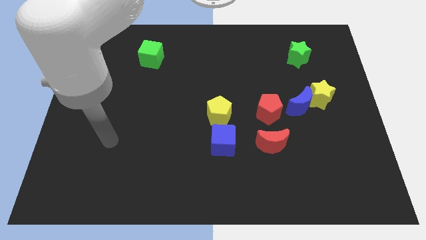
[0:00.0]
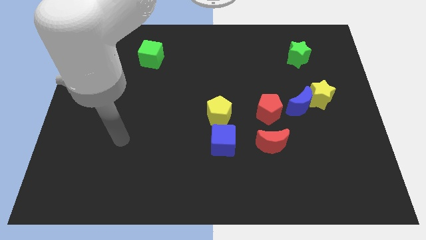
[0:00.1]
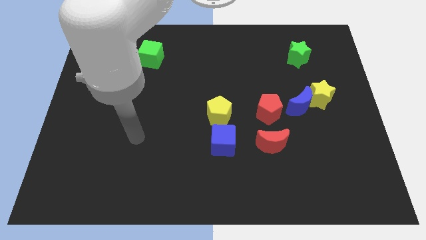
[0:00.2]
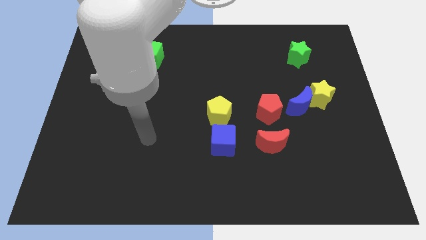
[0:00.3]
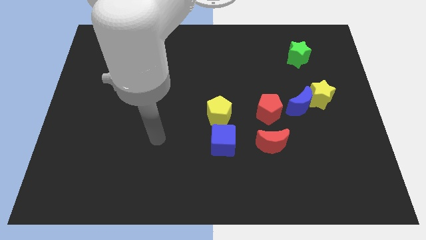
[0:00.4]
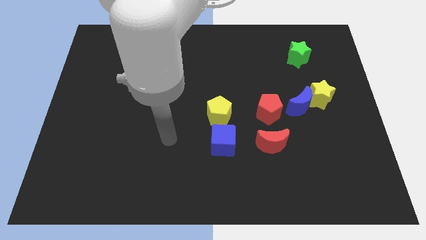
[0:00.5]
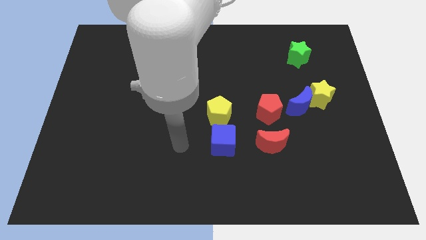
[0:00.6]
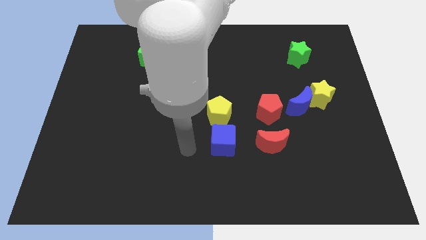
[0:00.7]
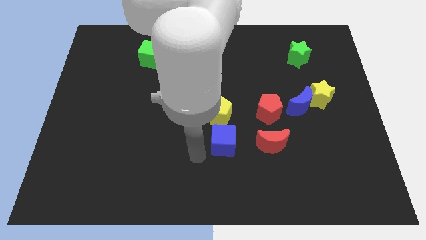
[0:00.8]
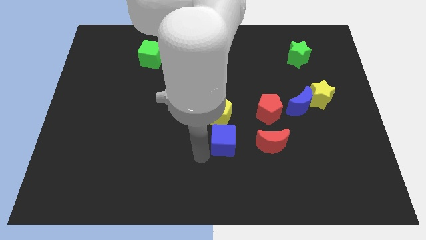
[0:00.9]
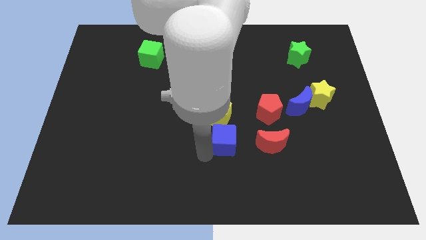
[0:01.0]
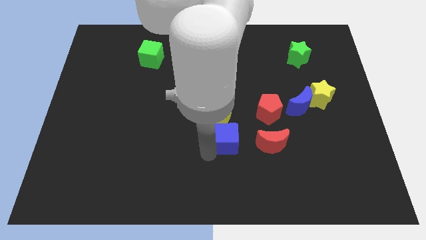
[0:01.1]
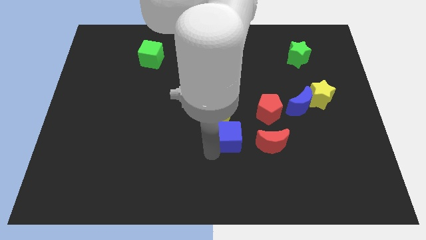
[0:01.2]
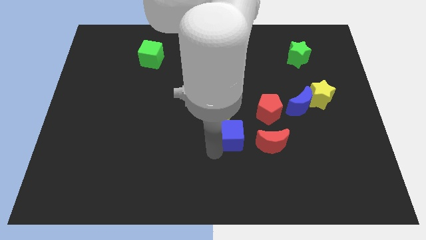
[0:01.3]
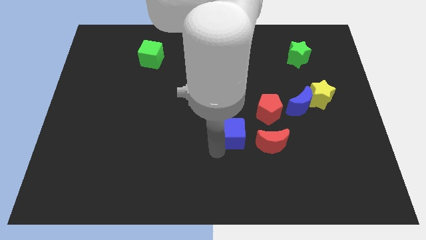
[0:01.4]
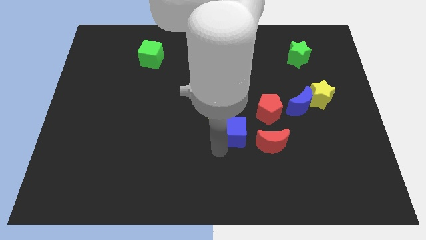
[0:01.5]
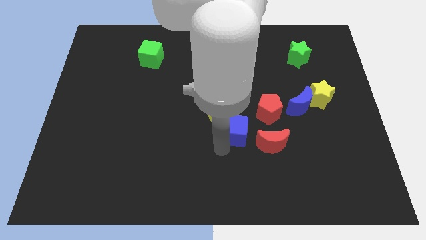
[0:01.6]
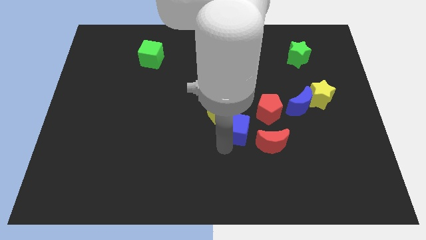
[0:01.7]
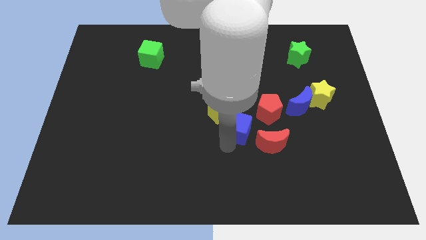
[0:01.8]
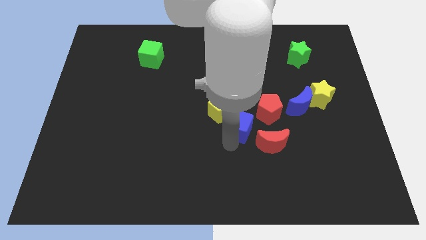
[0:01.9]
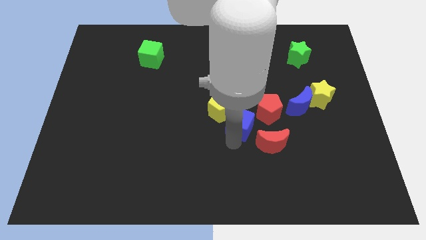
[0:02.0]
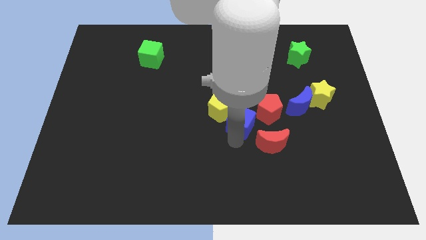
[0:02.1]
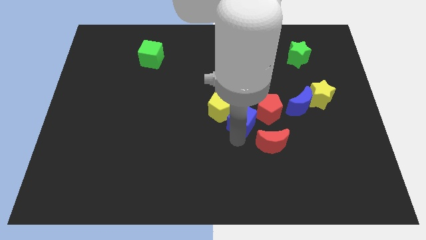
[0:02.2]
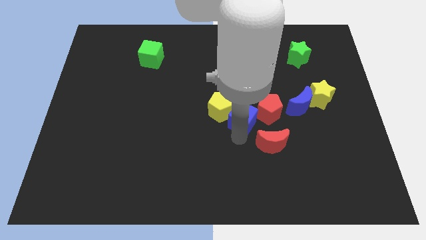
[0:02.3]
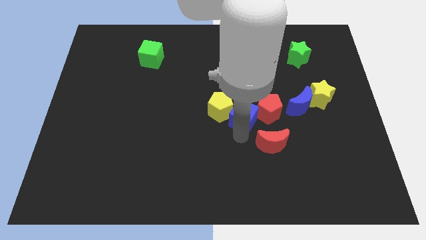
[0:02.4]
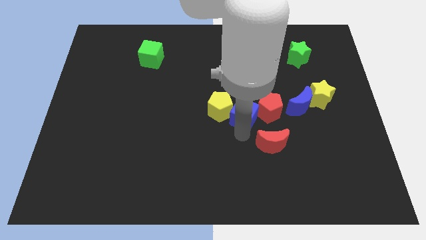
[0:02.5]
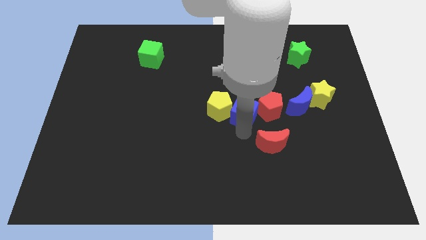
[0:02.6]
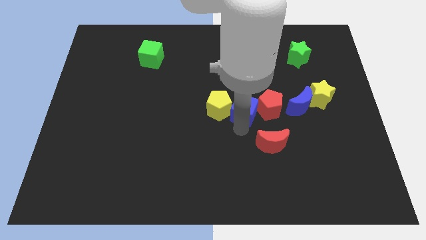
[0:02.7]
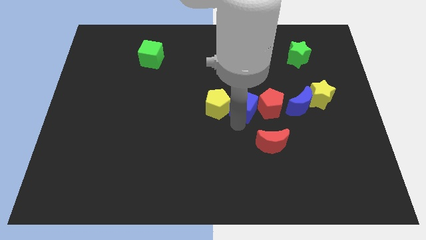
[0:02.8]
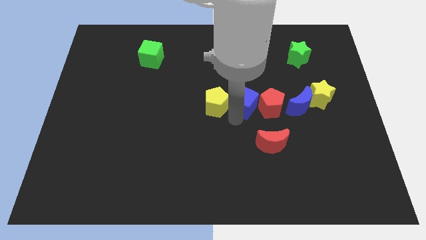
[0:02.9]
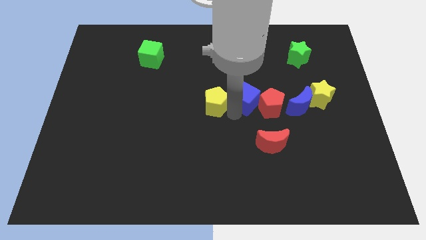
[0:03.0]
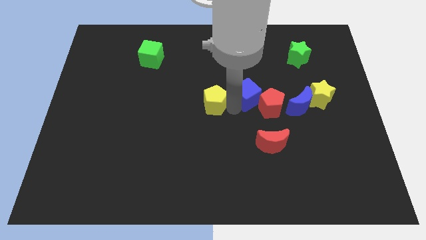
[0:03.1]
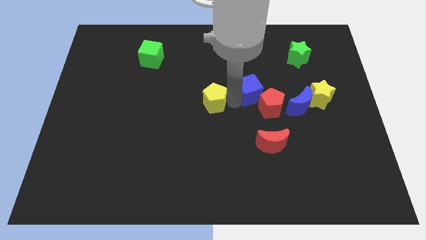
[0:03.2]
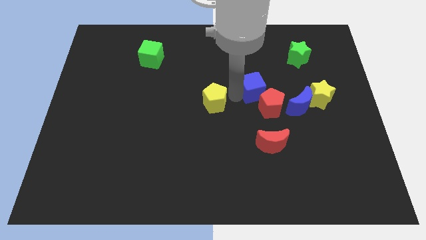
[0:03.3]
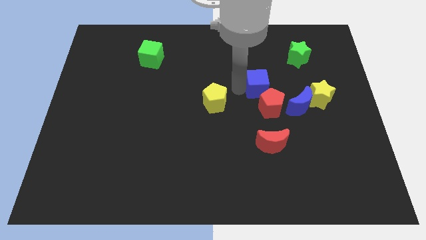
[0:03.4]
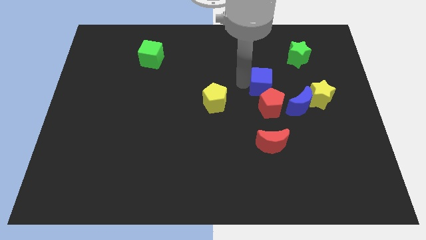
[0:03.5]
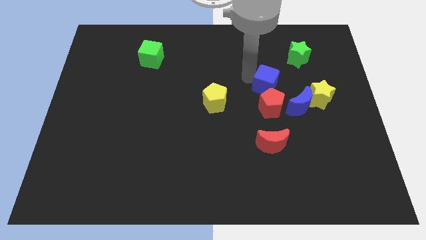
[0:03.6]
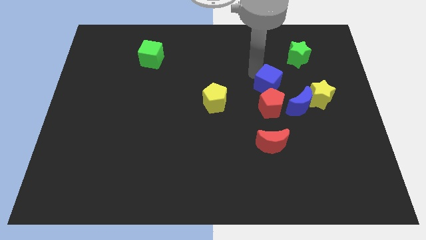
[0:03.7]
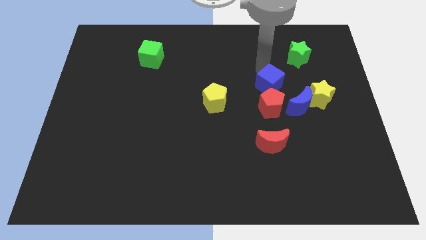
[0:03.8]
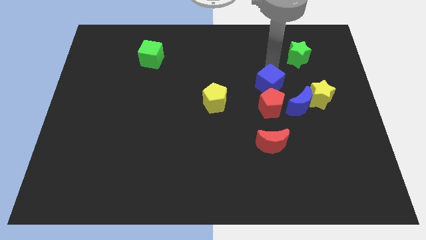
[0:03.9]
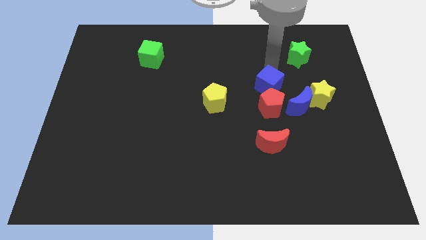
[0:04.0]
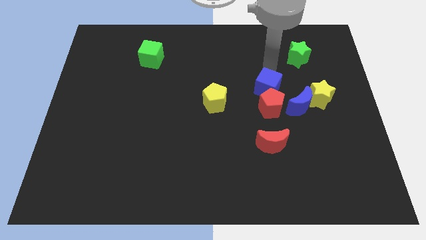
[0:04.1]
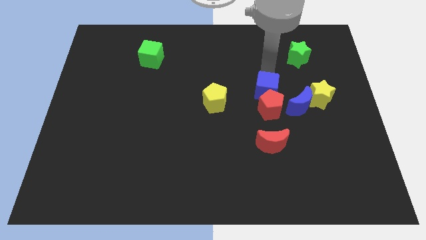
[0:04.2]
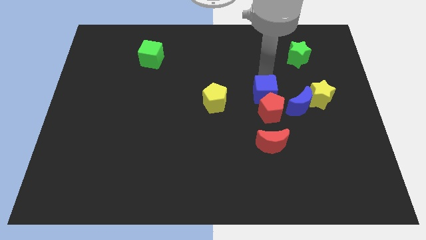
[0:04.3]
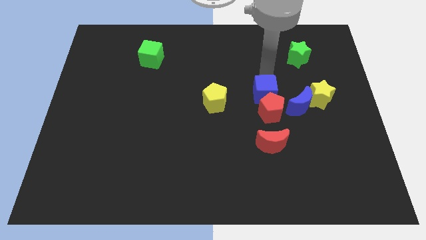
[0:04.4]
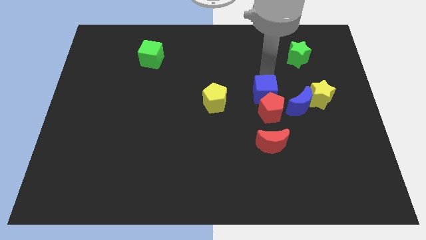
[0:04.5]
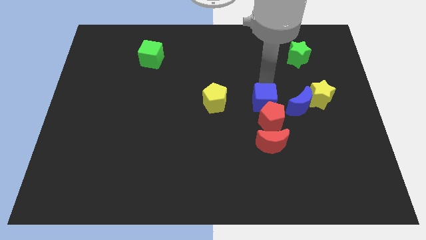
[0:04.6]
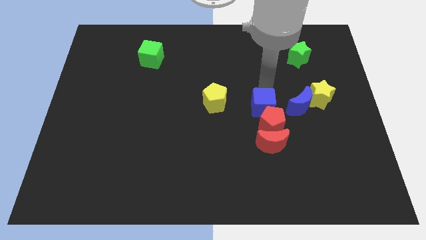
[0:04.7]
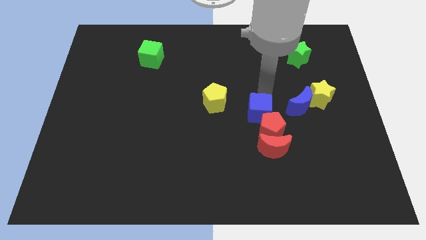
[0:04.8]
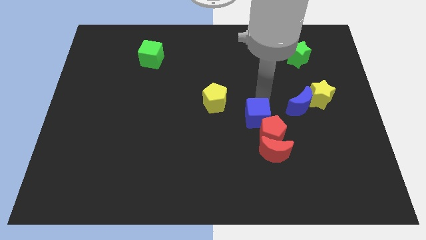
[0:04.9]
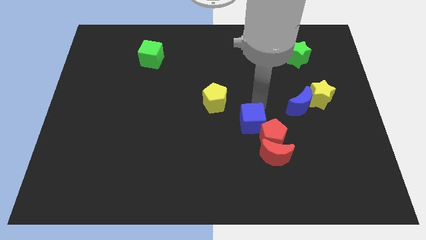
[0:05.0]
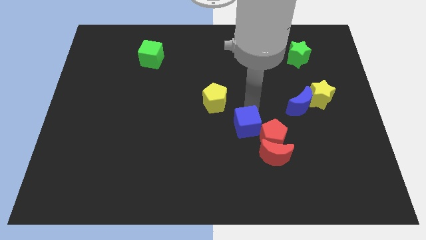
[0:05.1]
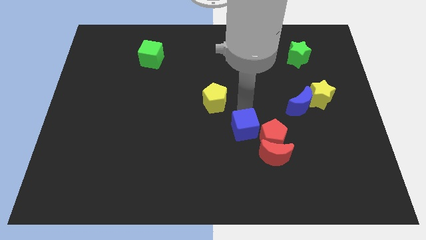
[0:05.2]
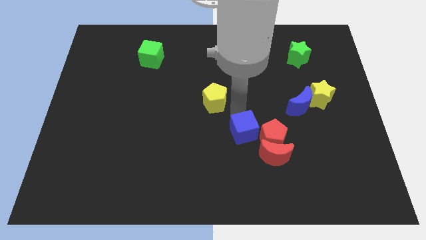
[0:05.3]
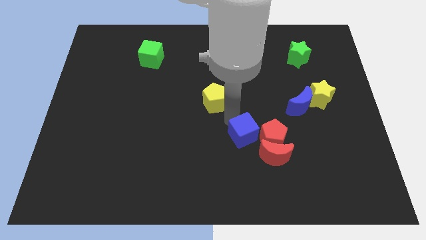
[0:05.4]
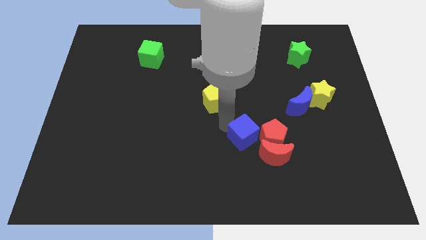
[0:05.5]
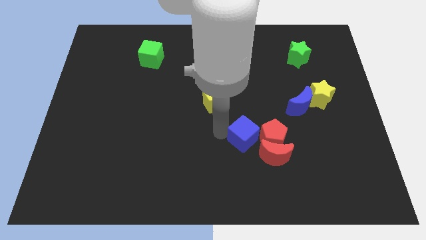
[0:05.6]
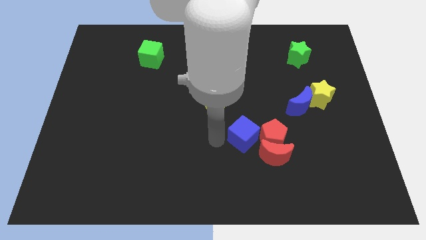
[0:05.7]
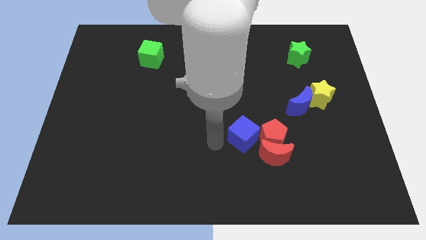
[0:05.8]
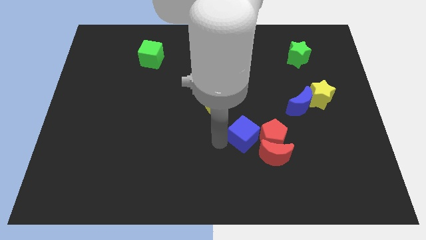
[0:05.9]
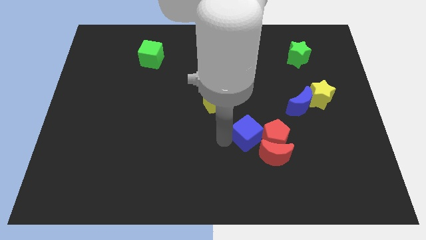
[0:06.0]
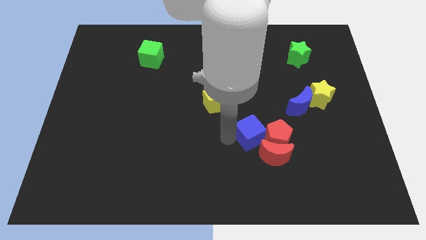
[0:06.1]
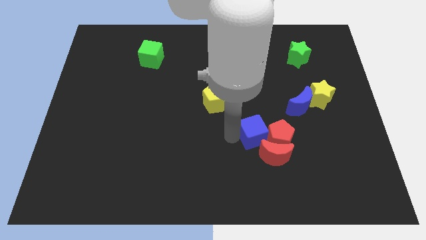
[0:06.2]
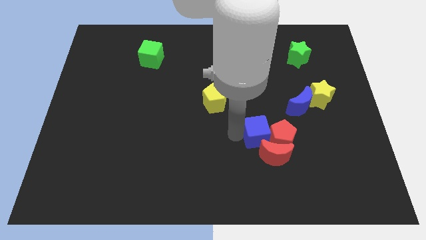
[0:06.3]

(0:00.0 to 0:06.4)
move the blue cube to the right a little bit

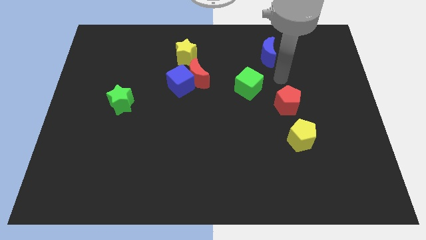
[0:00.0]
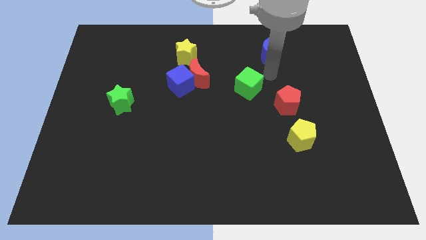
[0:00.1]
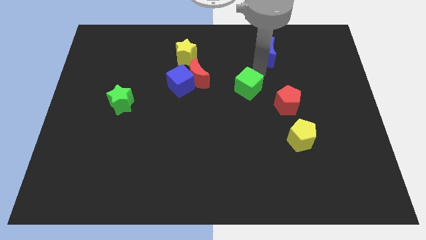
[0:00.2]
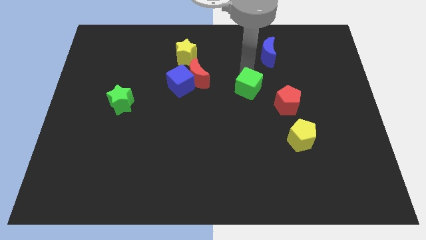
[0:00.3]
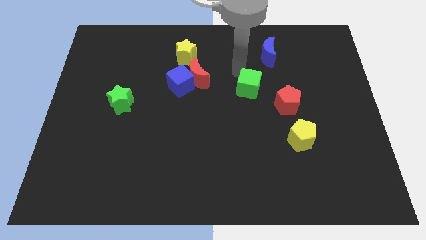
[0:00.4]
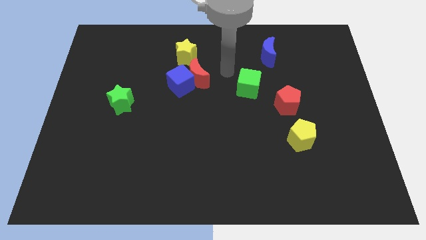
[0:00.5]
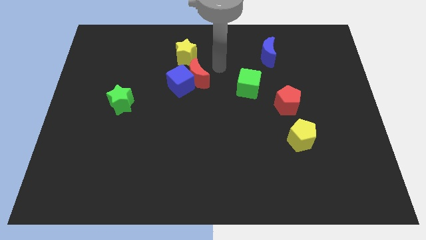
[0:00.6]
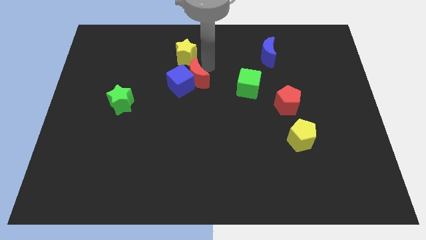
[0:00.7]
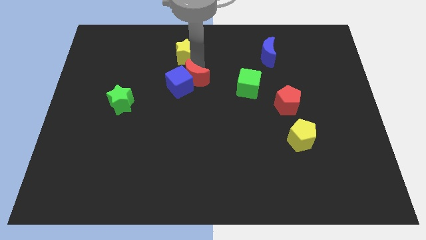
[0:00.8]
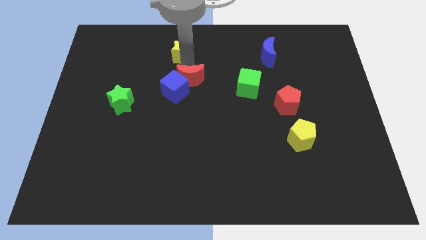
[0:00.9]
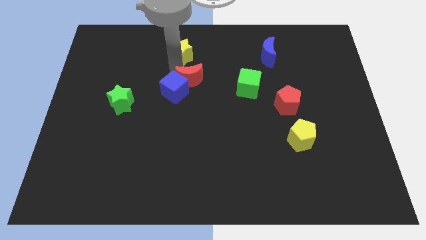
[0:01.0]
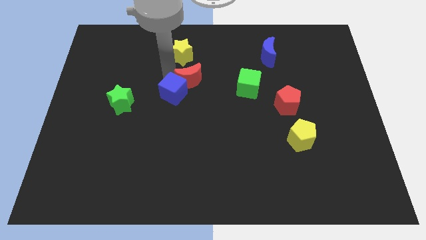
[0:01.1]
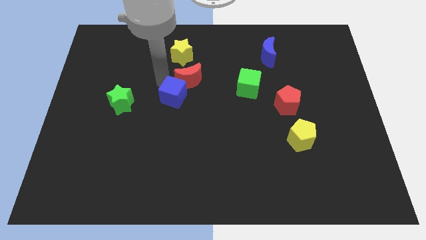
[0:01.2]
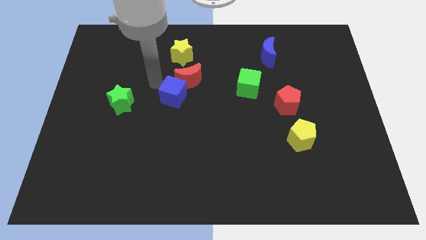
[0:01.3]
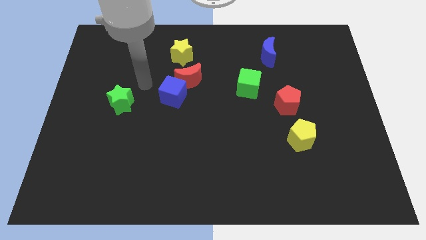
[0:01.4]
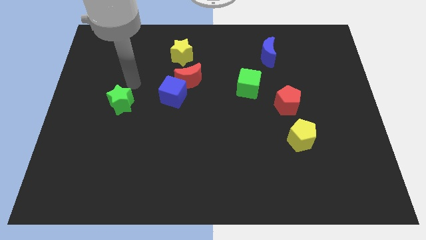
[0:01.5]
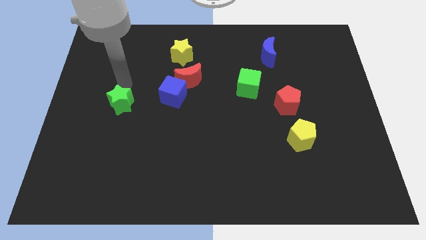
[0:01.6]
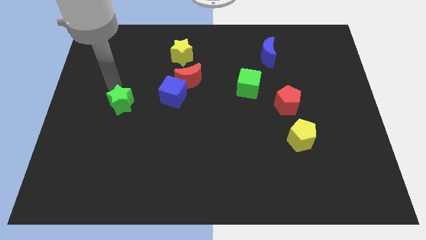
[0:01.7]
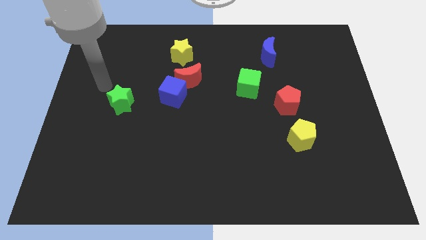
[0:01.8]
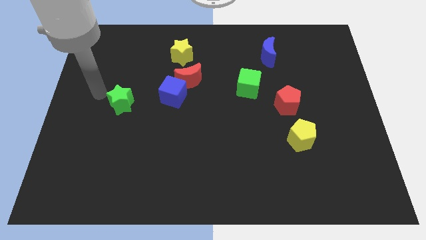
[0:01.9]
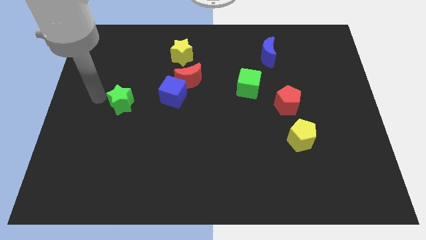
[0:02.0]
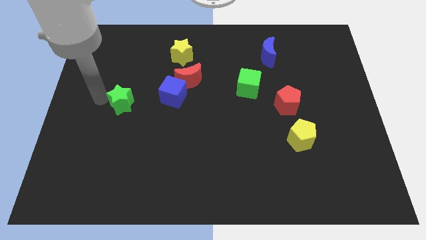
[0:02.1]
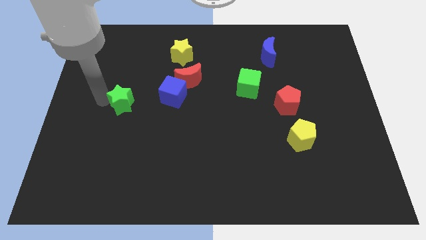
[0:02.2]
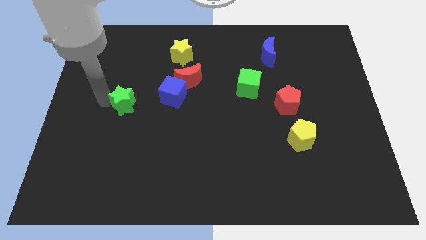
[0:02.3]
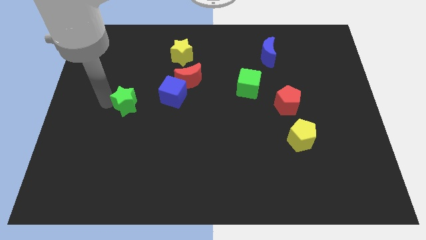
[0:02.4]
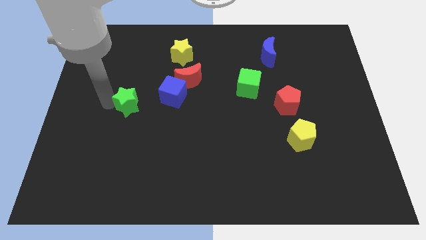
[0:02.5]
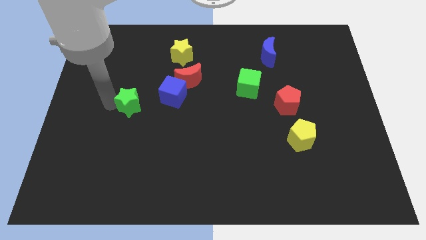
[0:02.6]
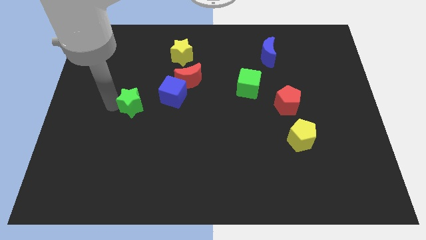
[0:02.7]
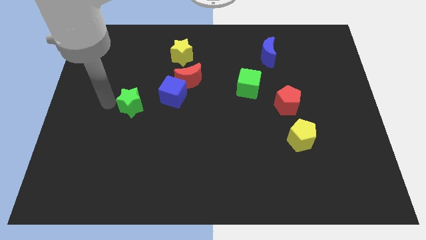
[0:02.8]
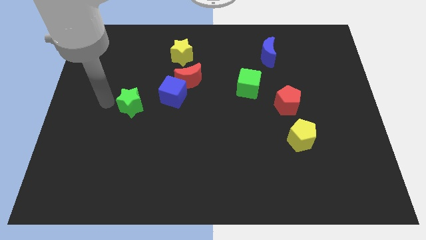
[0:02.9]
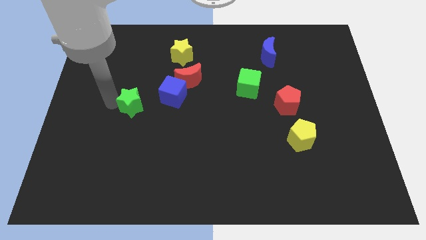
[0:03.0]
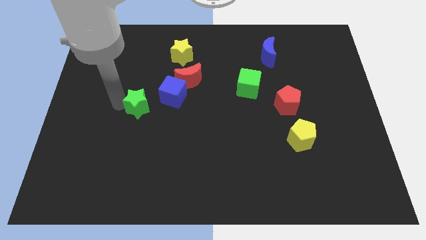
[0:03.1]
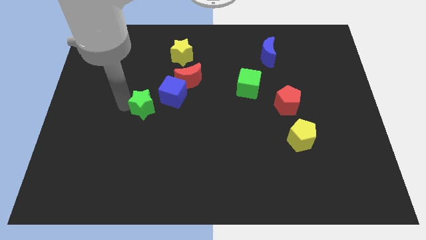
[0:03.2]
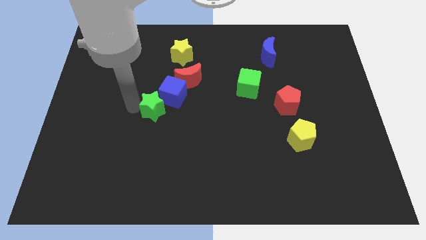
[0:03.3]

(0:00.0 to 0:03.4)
slightly slide the green star right
